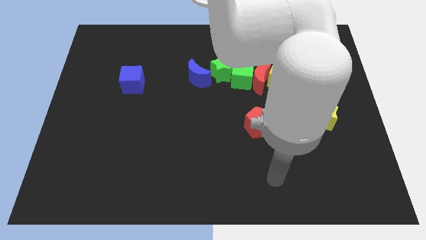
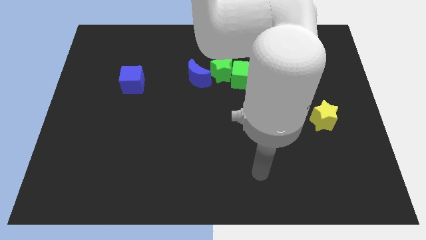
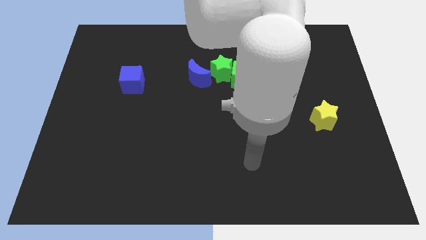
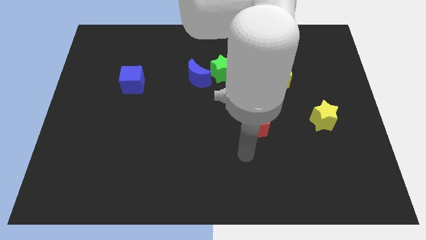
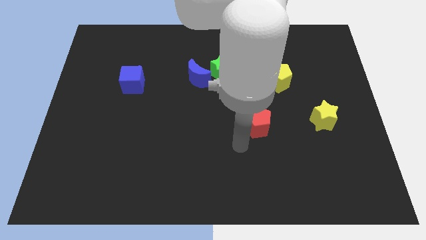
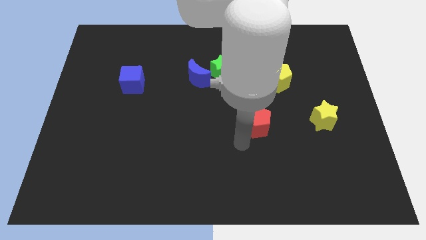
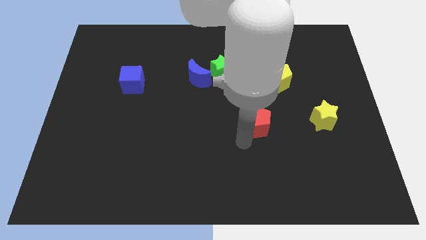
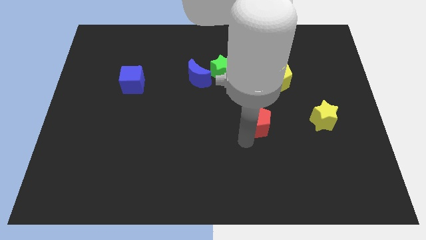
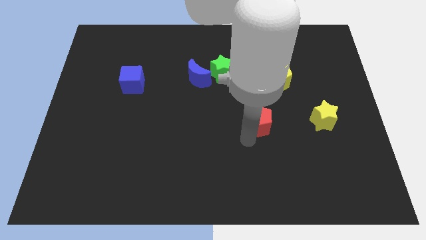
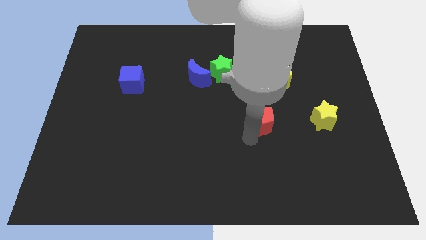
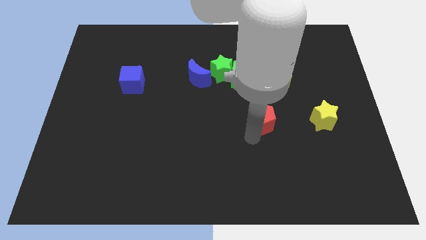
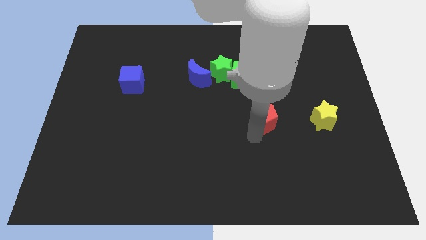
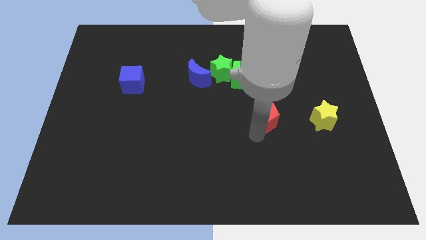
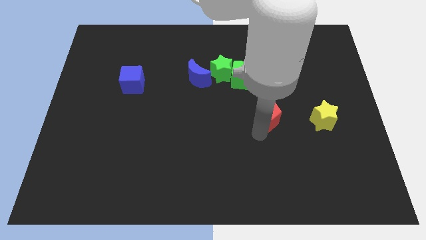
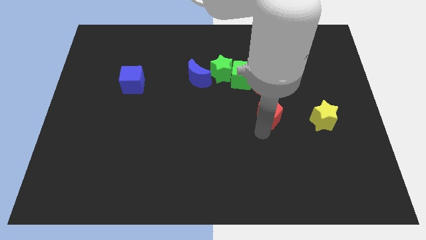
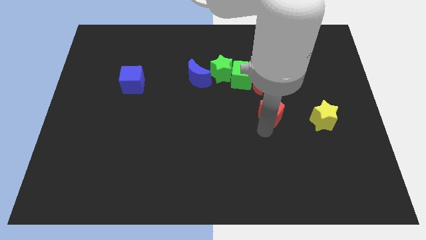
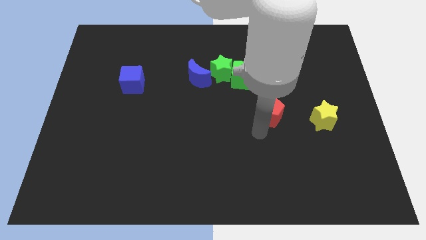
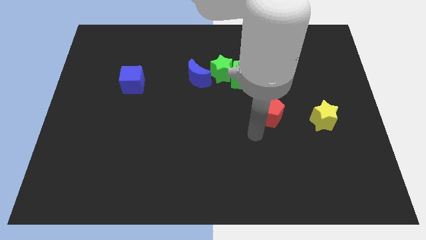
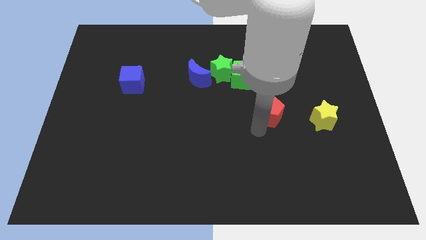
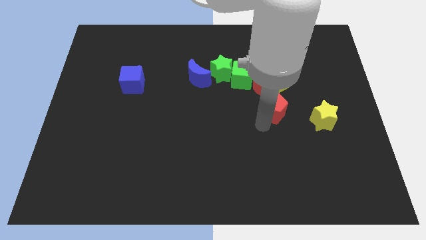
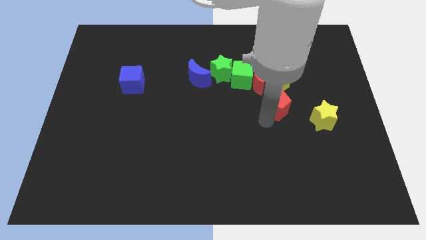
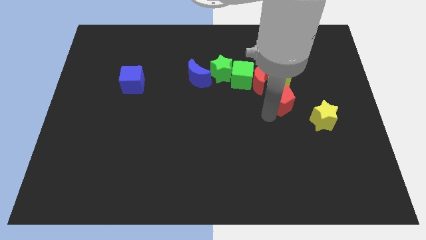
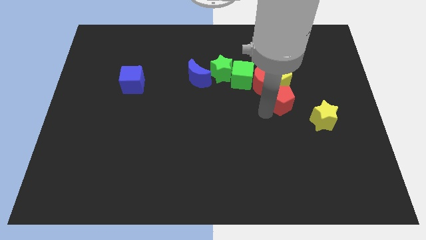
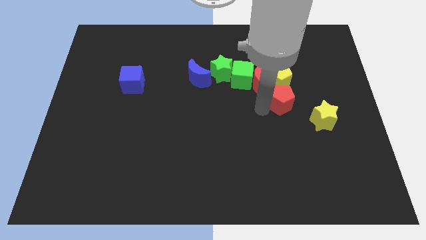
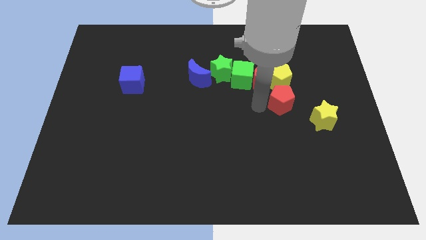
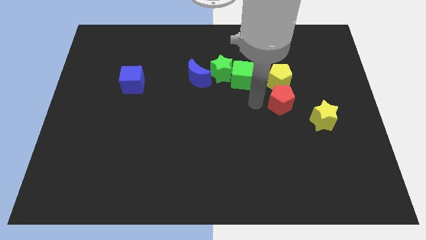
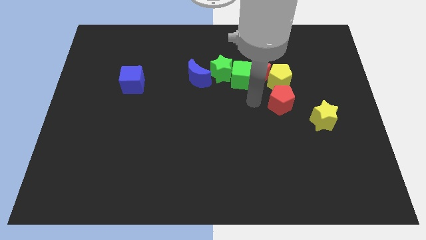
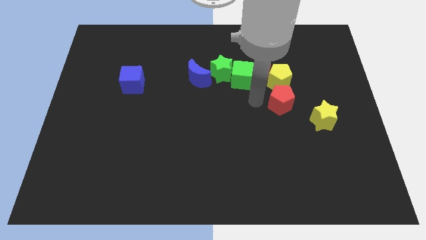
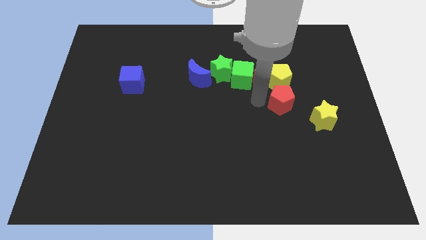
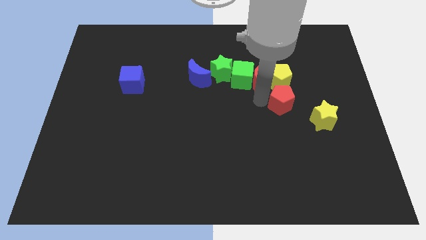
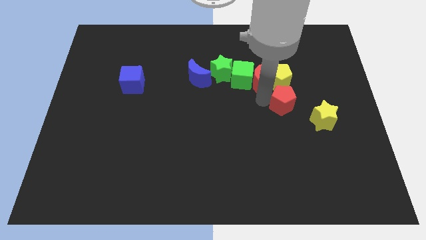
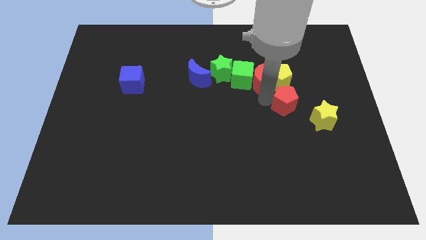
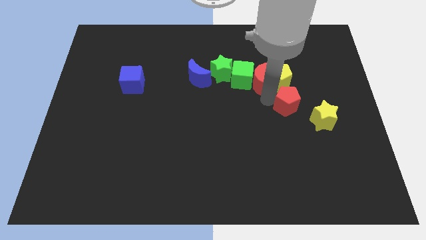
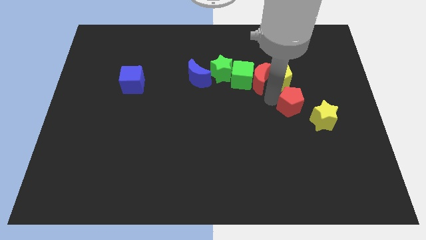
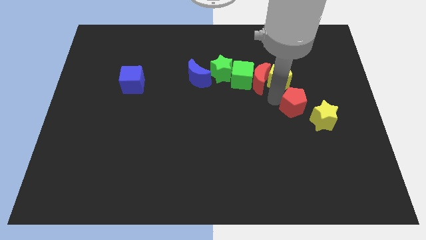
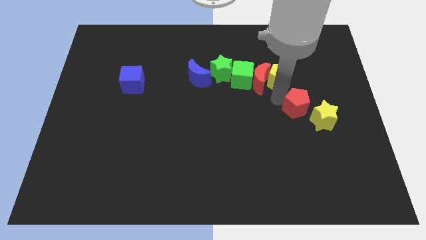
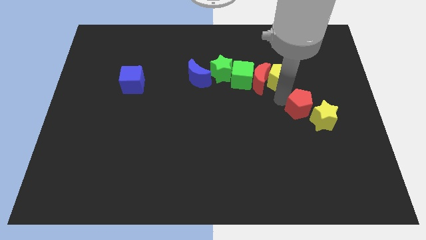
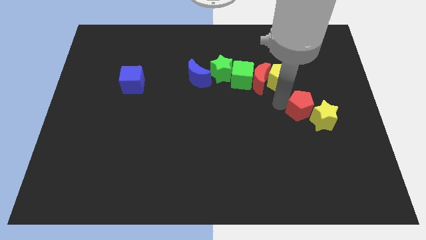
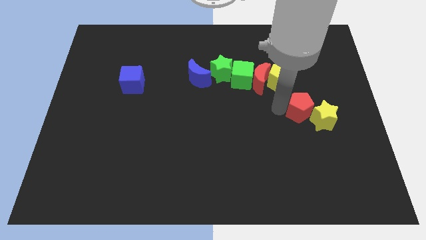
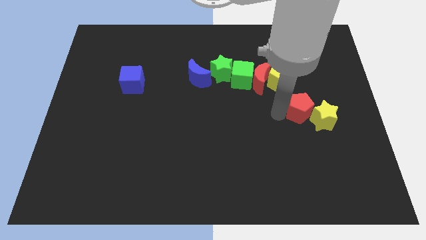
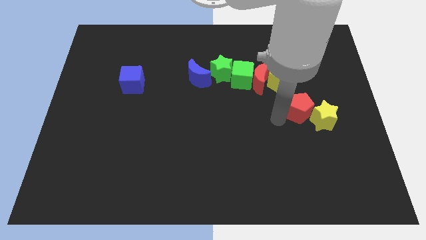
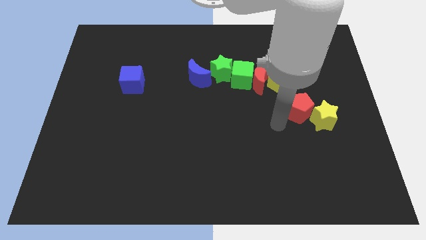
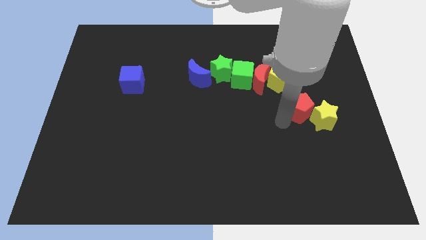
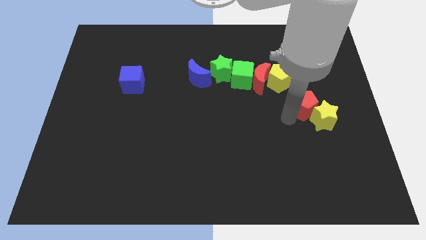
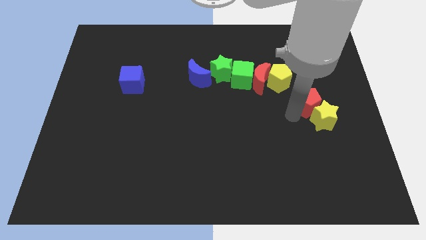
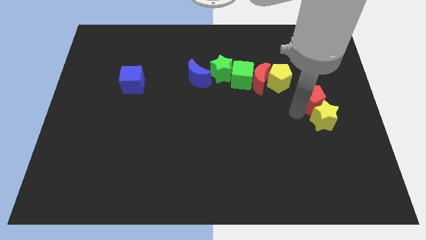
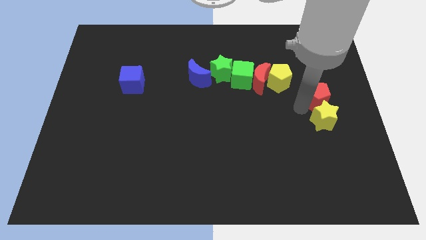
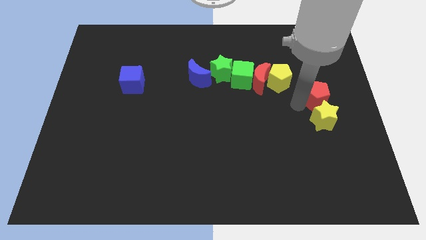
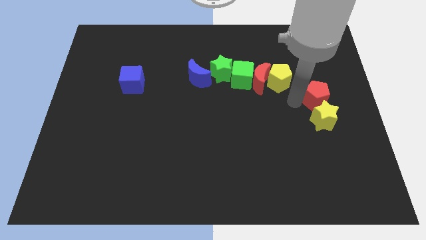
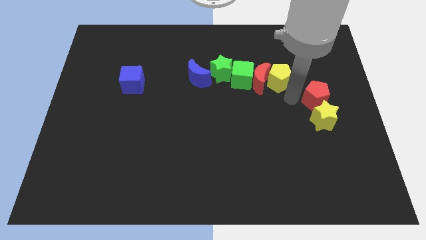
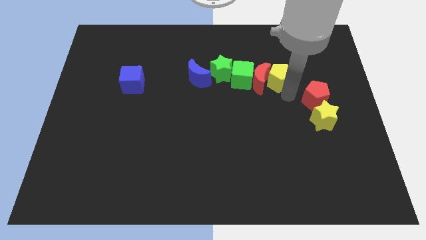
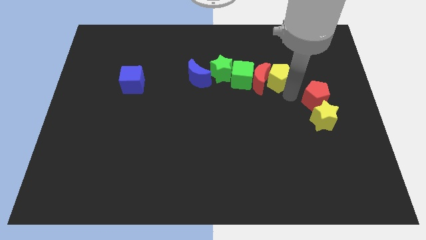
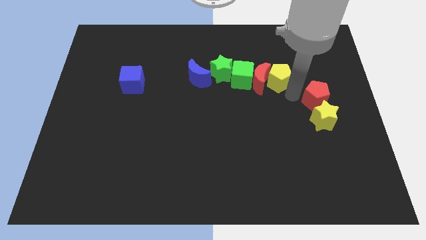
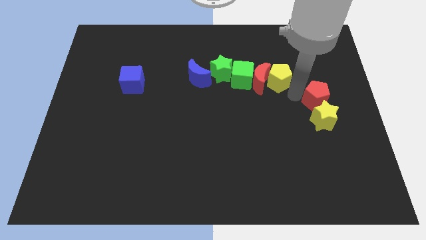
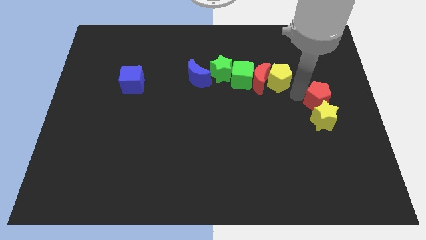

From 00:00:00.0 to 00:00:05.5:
move the red pentagon to the right side

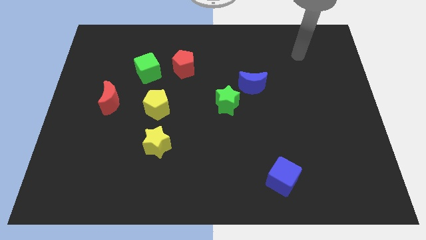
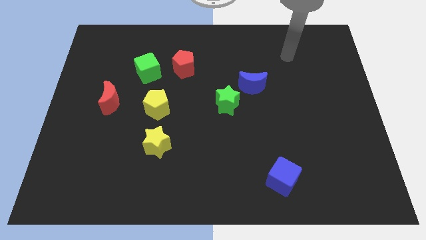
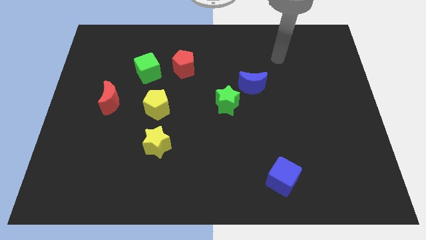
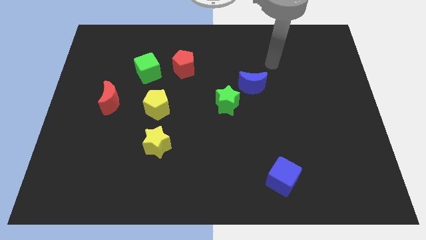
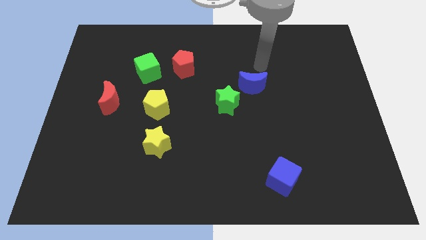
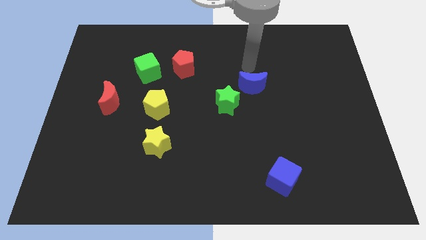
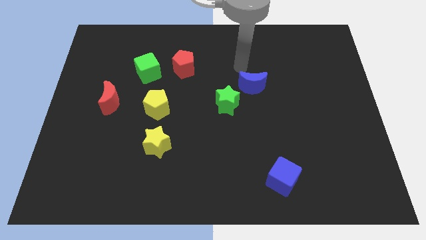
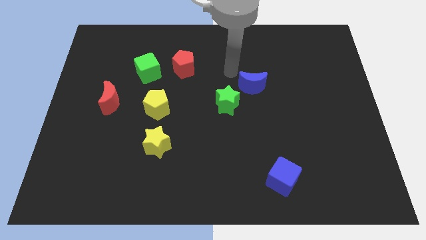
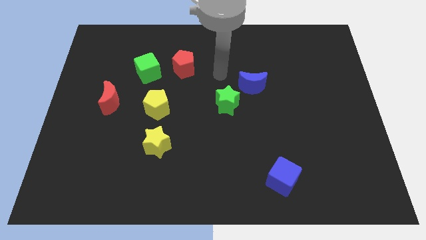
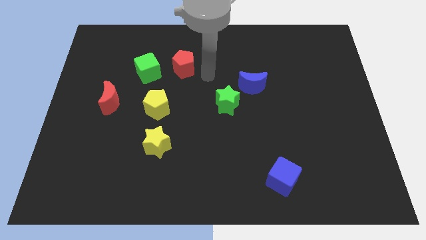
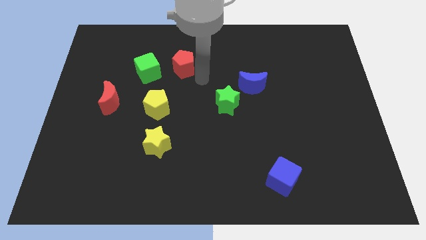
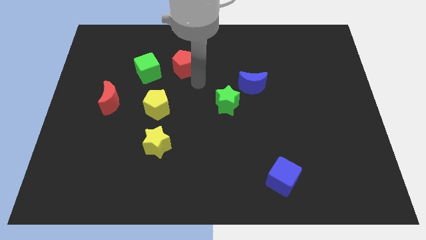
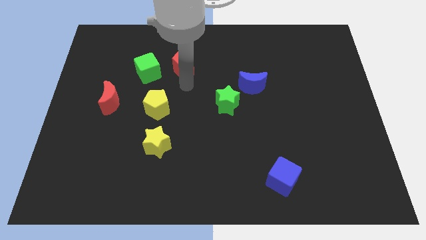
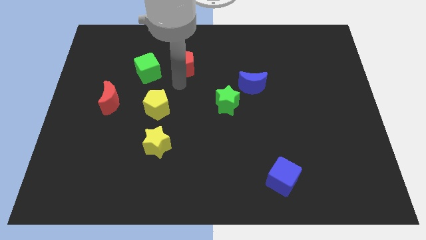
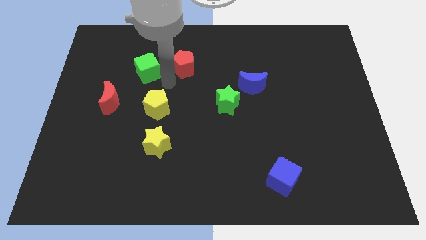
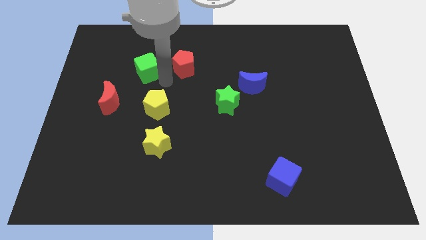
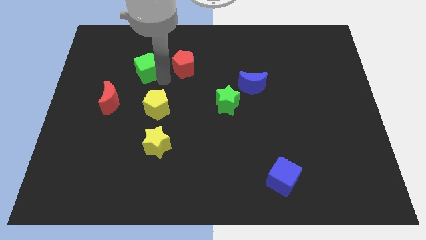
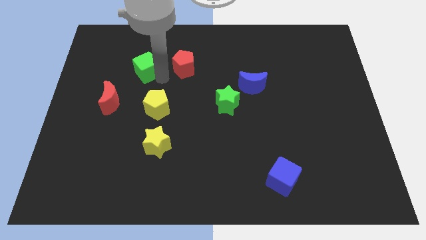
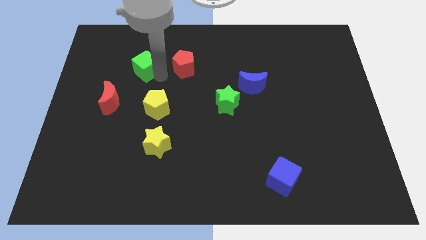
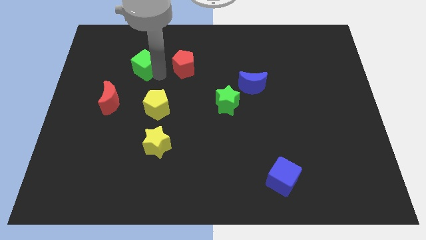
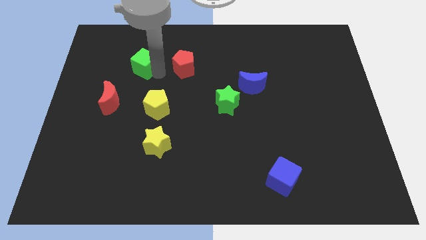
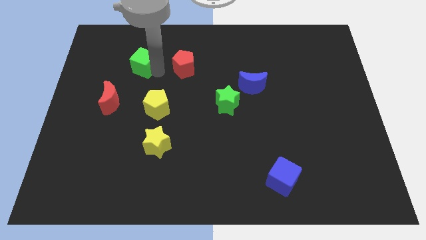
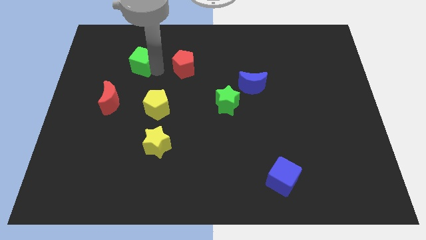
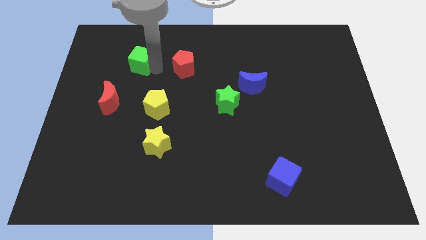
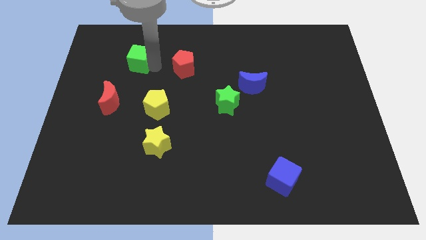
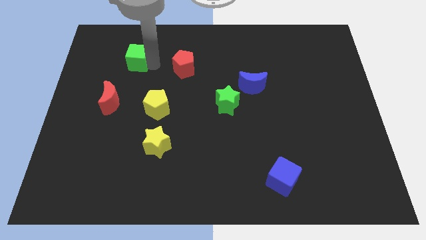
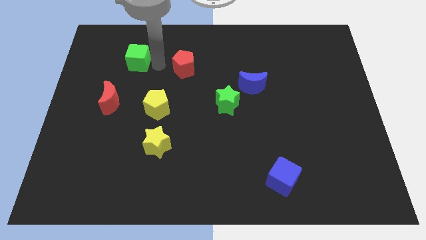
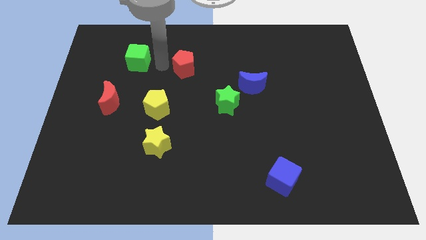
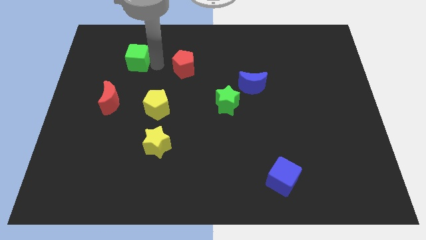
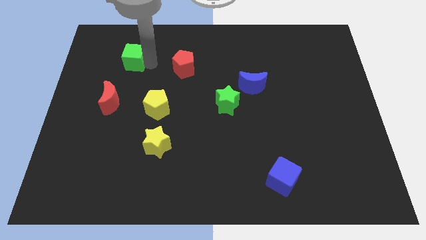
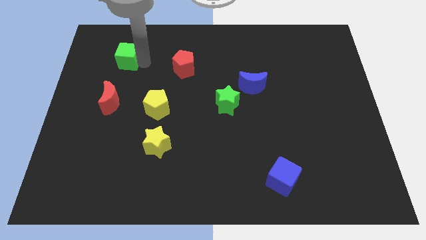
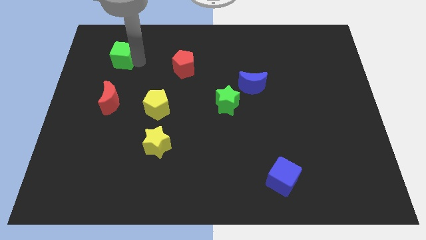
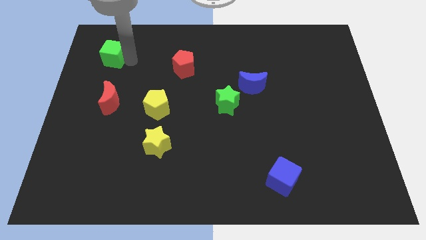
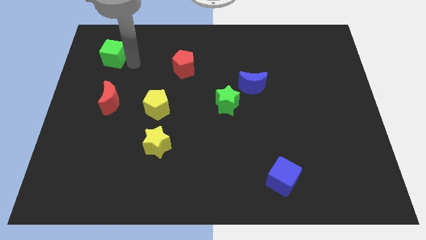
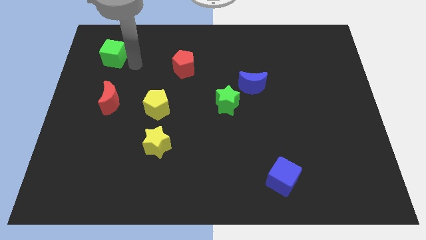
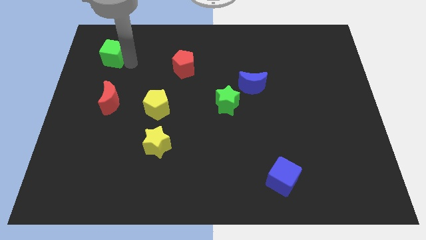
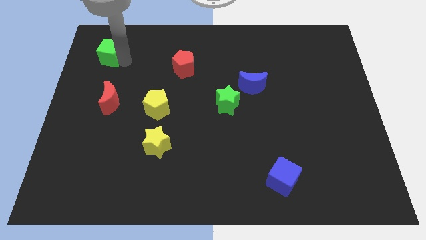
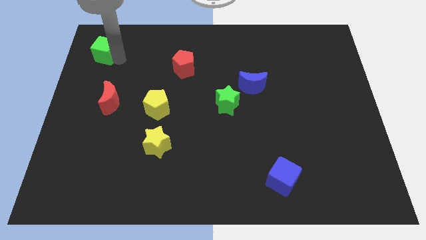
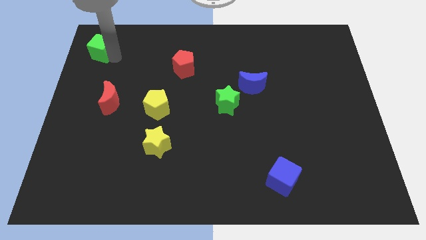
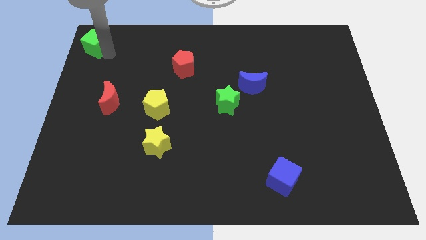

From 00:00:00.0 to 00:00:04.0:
put the green cube to the top left corner
